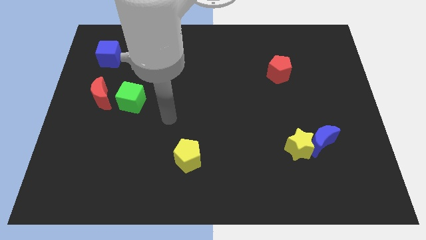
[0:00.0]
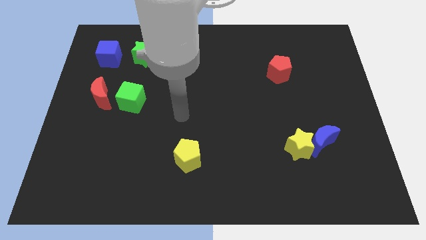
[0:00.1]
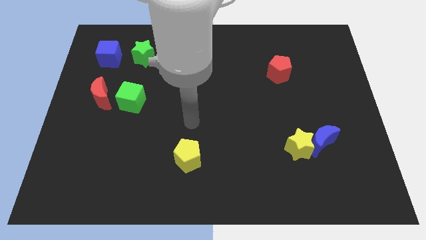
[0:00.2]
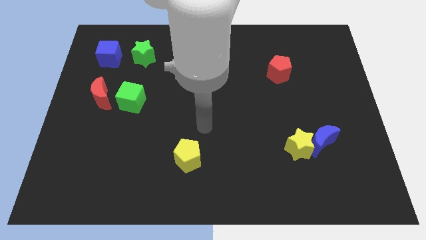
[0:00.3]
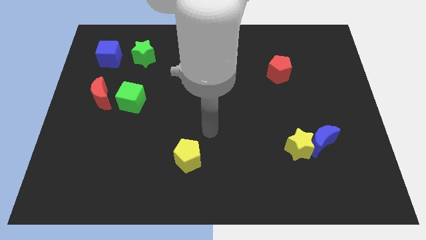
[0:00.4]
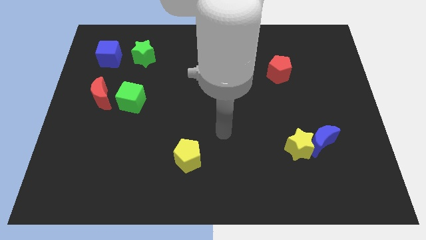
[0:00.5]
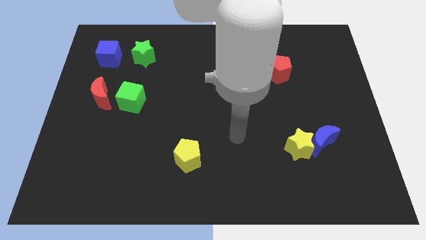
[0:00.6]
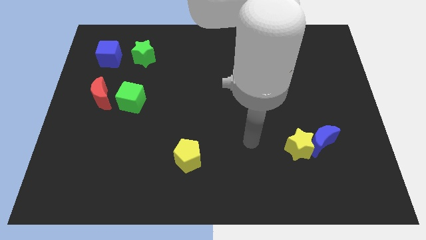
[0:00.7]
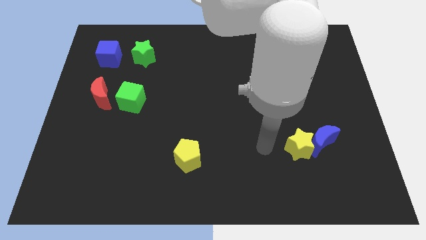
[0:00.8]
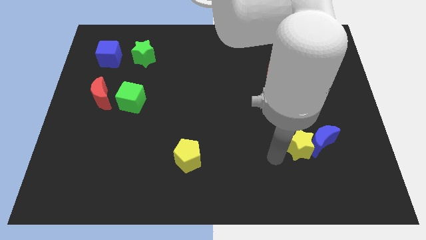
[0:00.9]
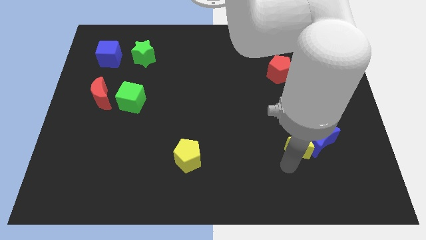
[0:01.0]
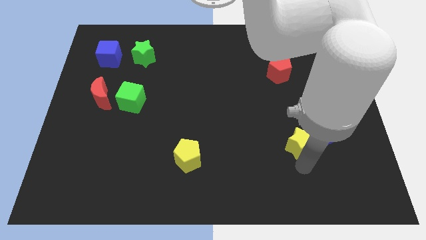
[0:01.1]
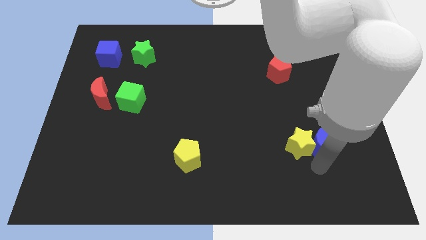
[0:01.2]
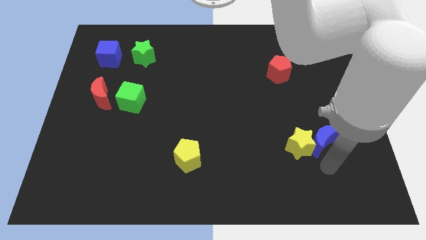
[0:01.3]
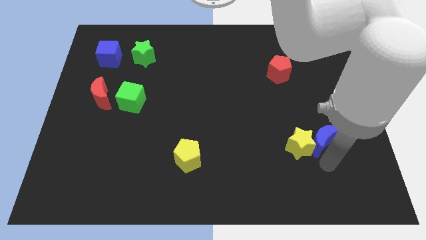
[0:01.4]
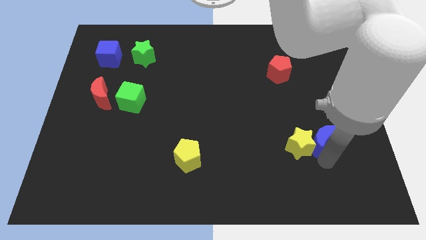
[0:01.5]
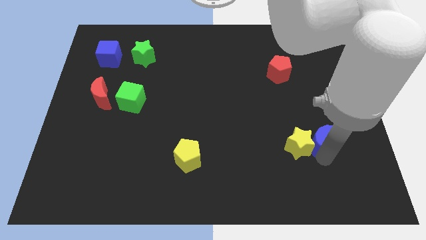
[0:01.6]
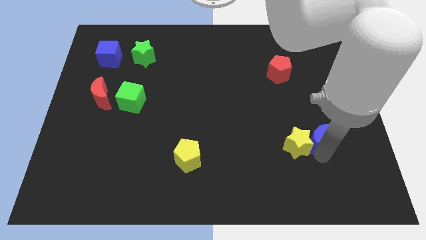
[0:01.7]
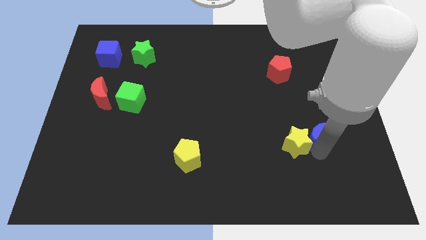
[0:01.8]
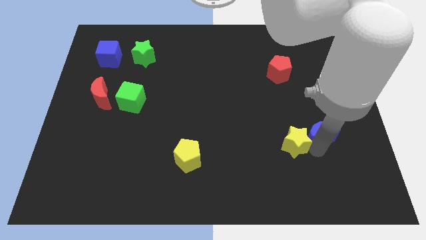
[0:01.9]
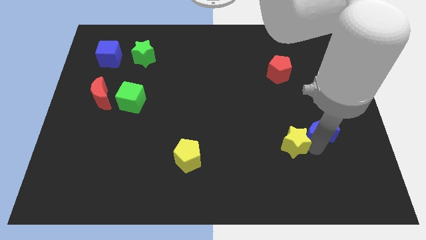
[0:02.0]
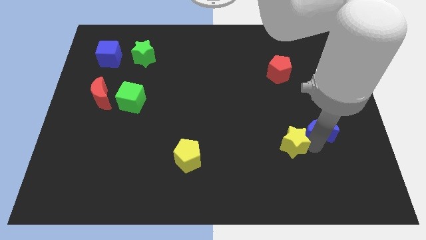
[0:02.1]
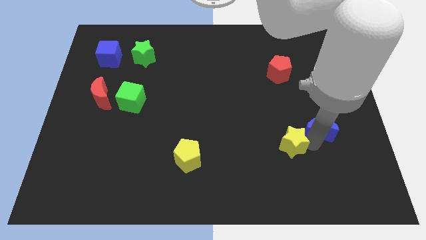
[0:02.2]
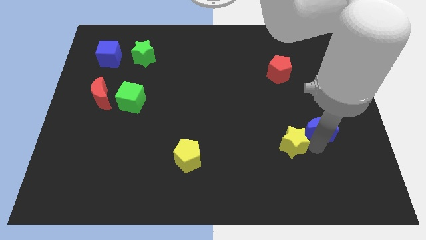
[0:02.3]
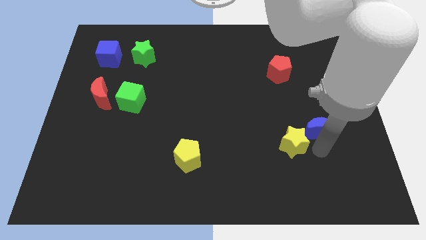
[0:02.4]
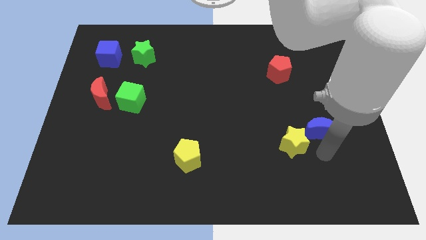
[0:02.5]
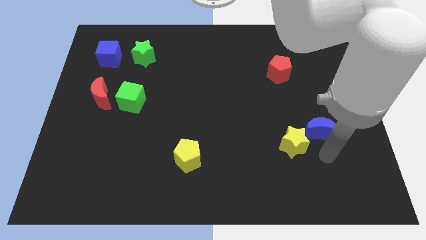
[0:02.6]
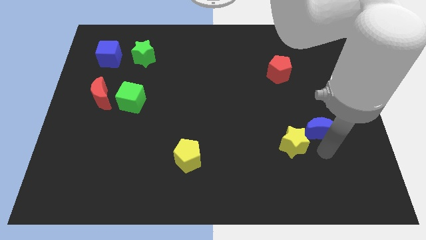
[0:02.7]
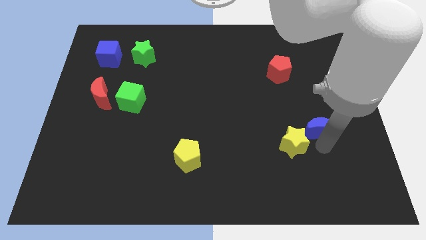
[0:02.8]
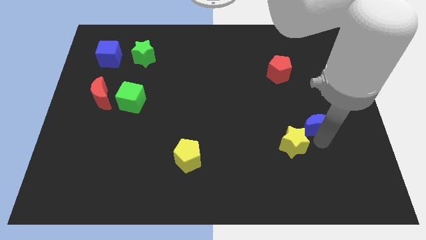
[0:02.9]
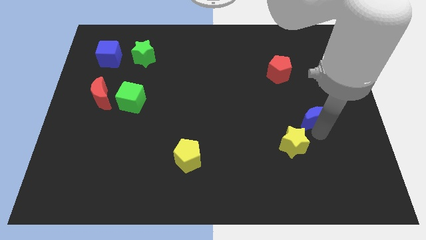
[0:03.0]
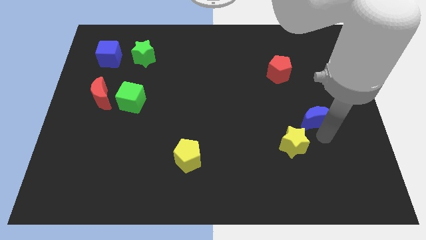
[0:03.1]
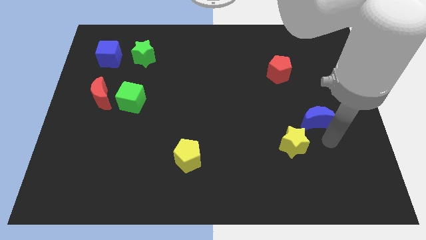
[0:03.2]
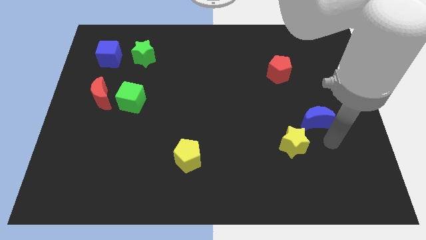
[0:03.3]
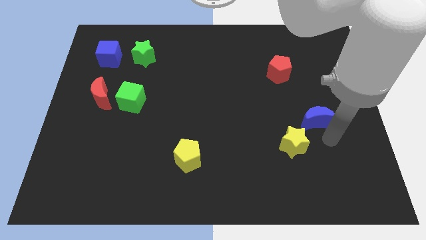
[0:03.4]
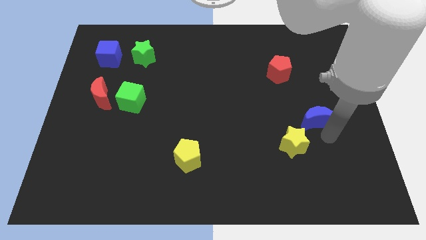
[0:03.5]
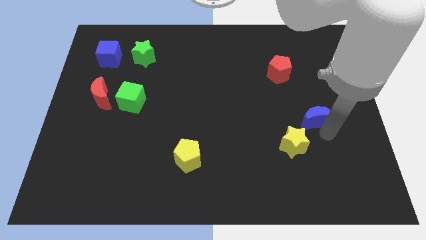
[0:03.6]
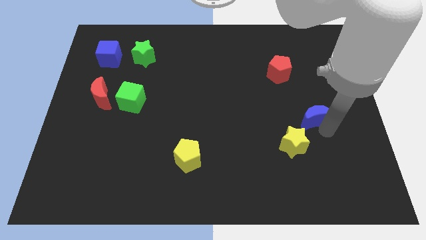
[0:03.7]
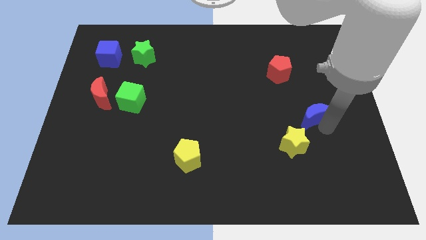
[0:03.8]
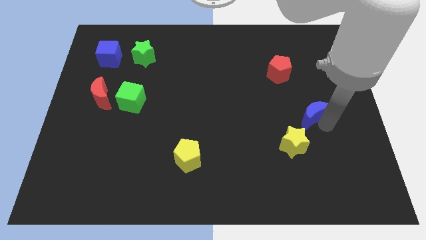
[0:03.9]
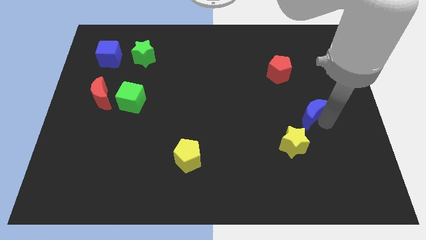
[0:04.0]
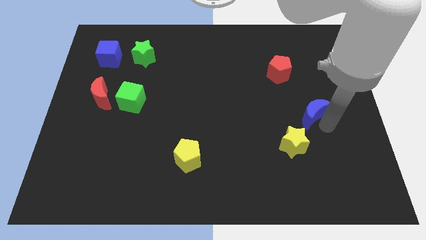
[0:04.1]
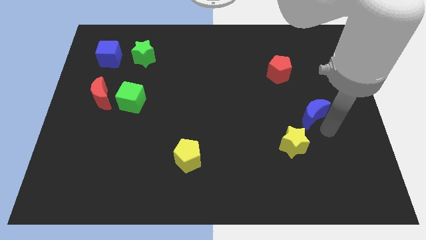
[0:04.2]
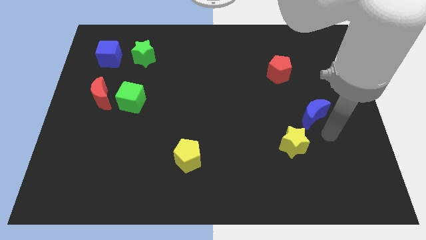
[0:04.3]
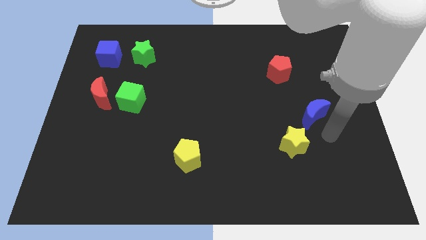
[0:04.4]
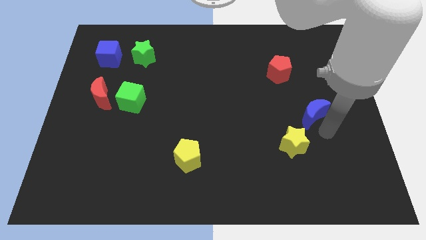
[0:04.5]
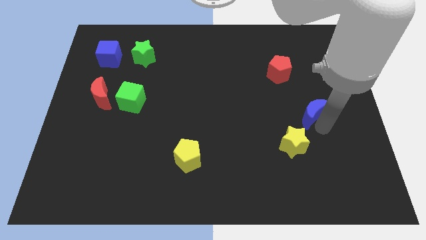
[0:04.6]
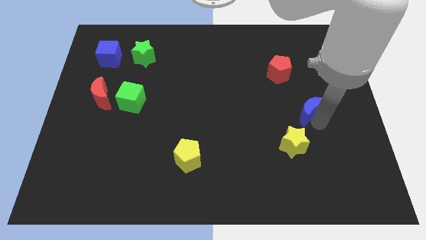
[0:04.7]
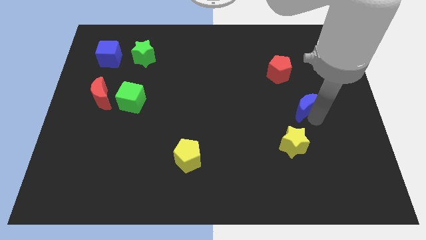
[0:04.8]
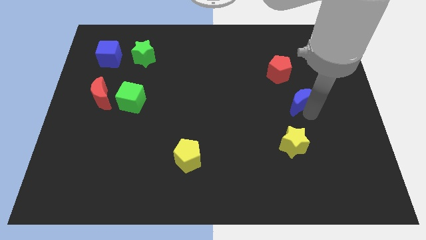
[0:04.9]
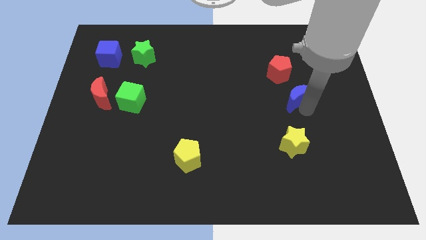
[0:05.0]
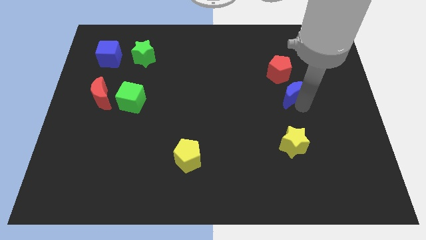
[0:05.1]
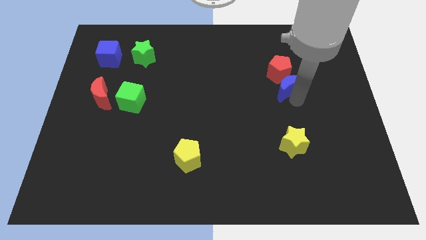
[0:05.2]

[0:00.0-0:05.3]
put the blue moon towards the red pentagon

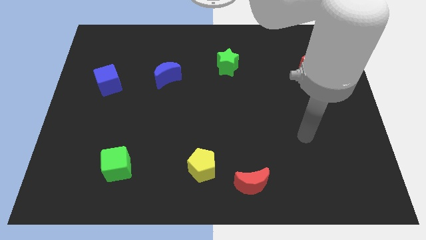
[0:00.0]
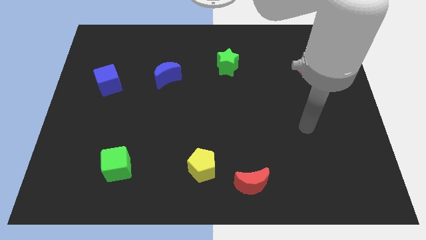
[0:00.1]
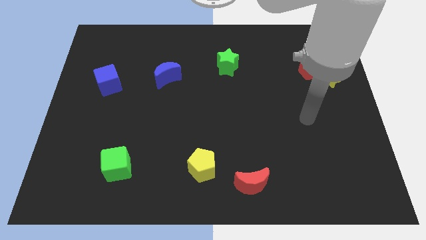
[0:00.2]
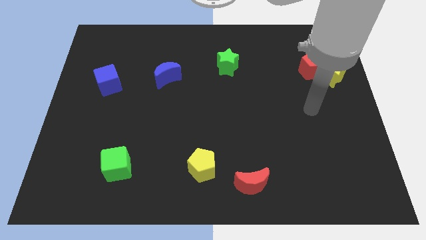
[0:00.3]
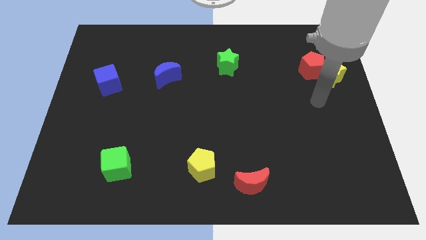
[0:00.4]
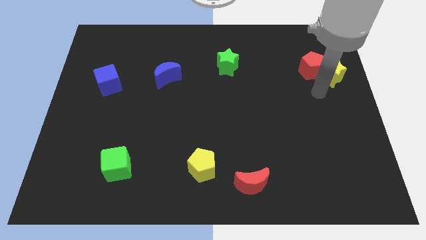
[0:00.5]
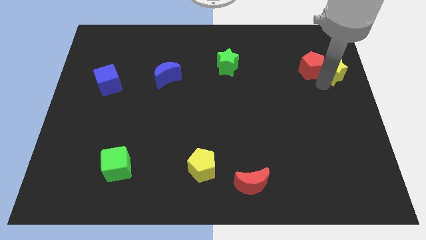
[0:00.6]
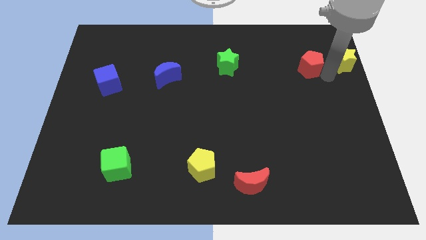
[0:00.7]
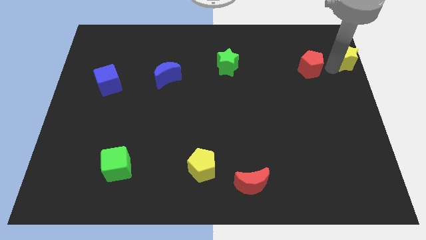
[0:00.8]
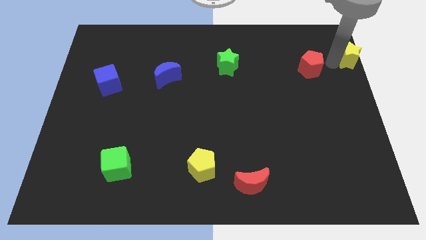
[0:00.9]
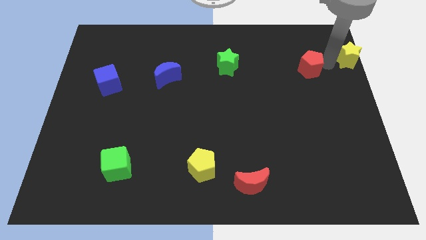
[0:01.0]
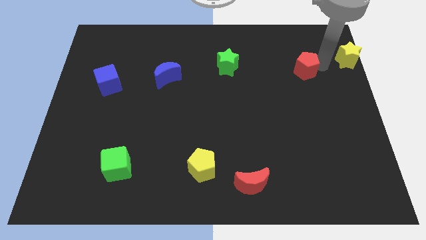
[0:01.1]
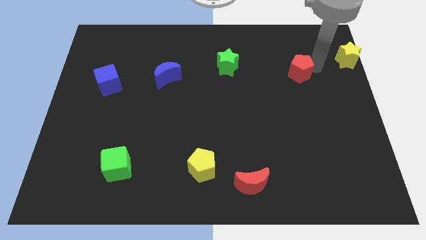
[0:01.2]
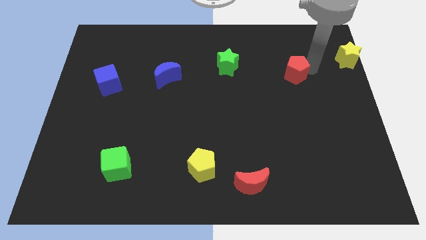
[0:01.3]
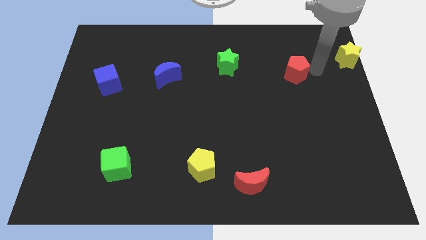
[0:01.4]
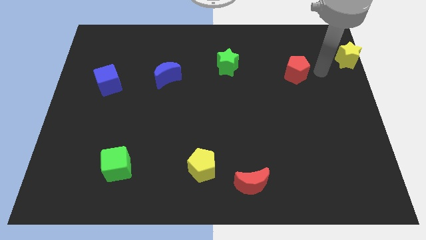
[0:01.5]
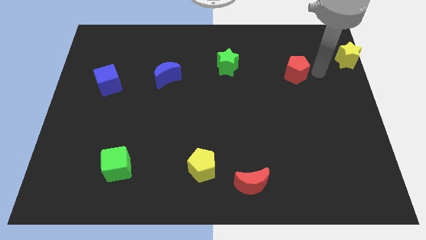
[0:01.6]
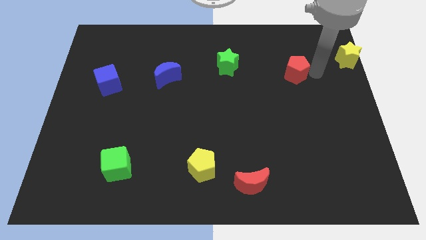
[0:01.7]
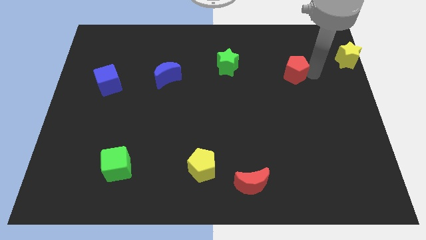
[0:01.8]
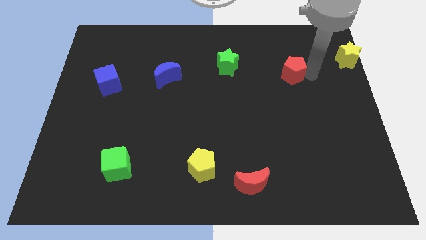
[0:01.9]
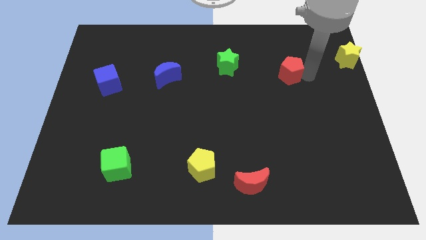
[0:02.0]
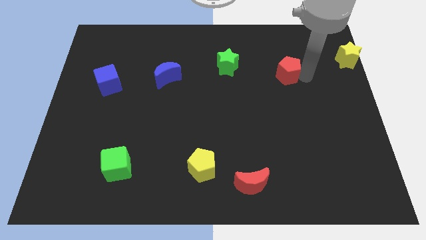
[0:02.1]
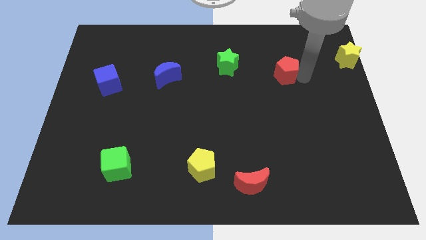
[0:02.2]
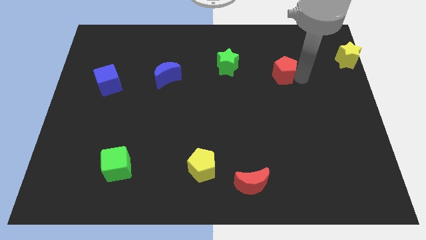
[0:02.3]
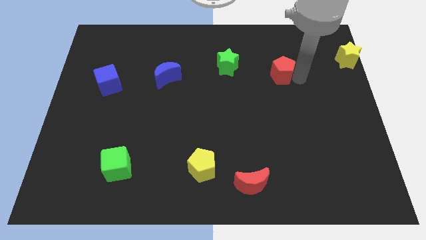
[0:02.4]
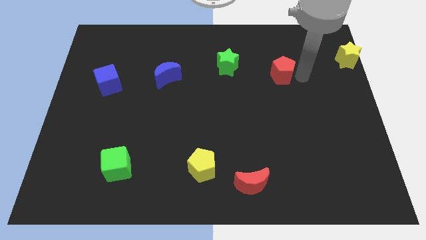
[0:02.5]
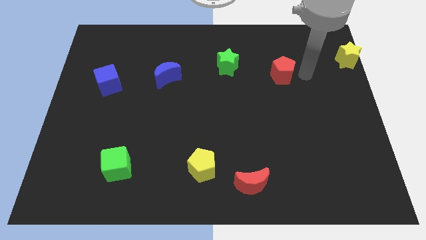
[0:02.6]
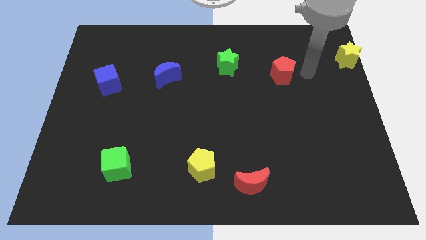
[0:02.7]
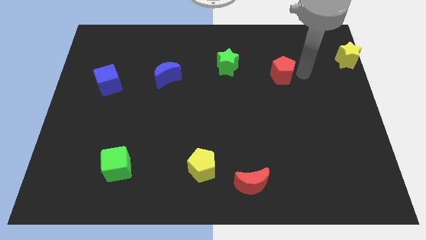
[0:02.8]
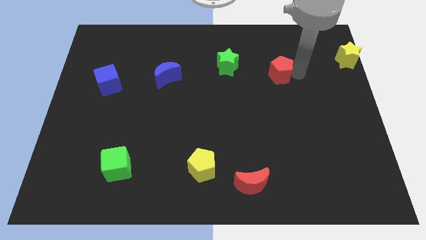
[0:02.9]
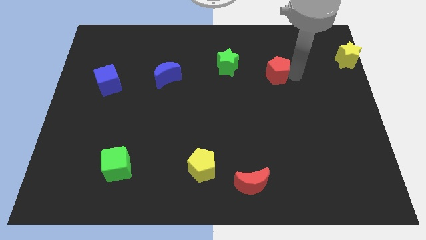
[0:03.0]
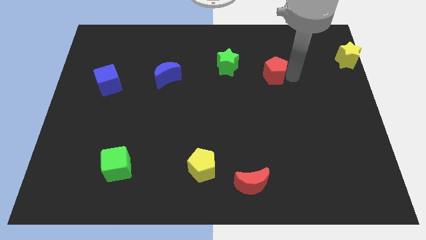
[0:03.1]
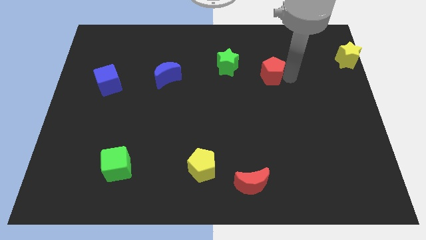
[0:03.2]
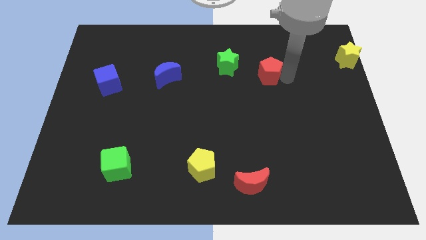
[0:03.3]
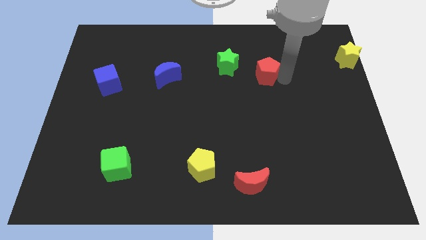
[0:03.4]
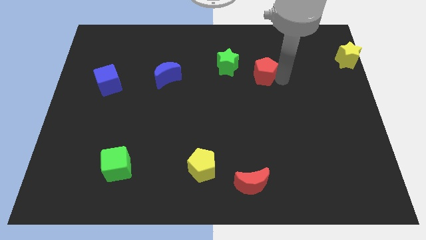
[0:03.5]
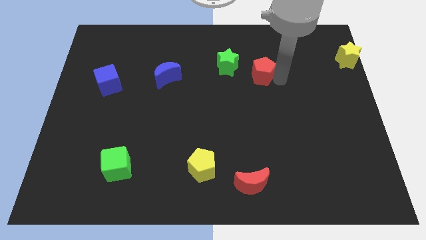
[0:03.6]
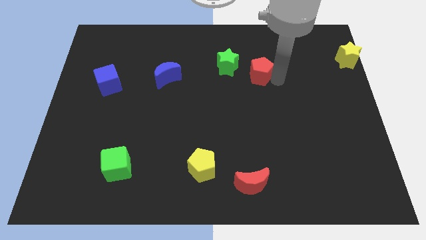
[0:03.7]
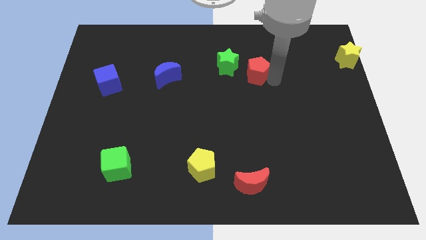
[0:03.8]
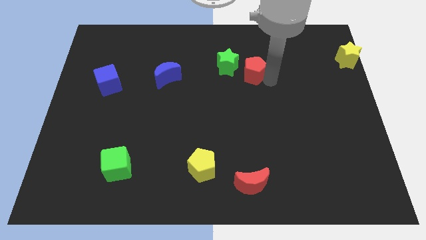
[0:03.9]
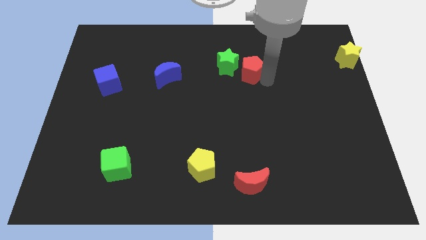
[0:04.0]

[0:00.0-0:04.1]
move the red pentagon towards the green star
